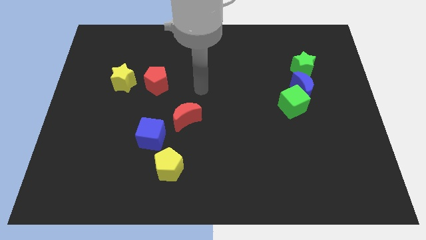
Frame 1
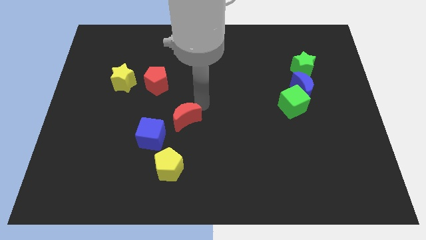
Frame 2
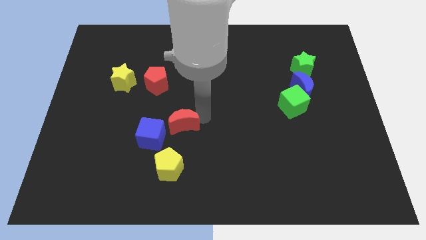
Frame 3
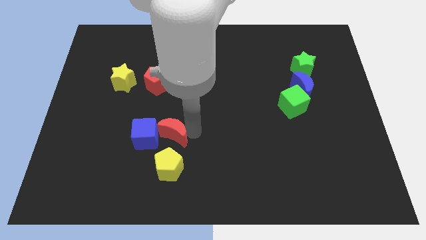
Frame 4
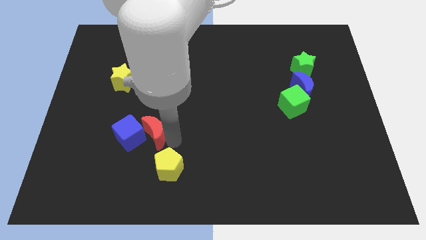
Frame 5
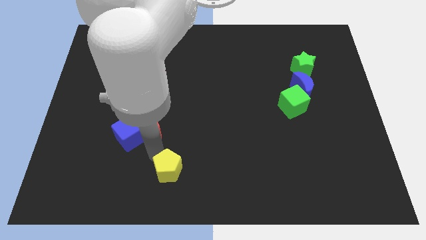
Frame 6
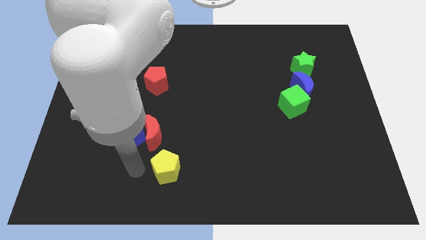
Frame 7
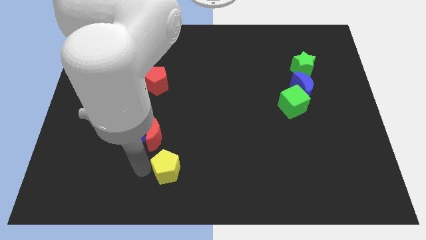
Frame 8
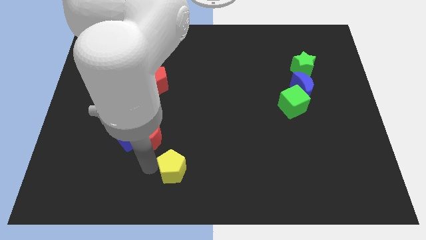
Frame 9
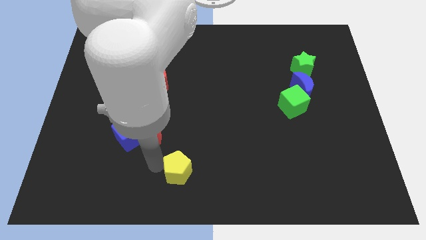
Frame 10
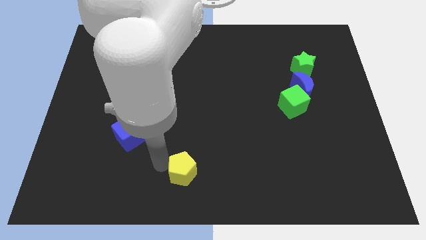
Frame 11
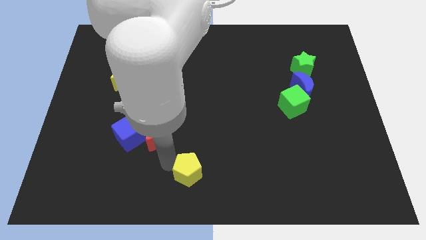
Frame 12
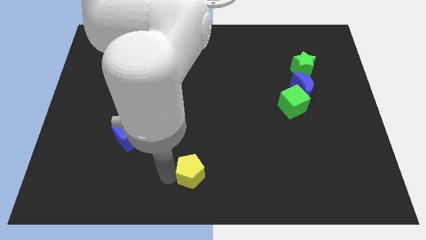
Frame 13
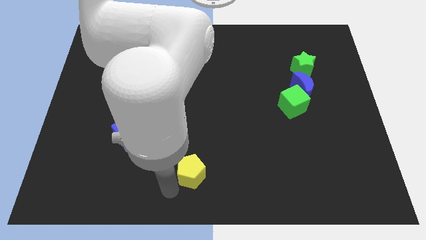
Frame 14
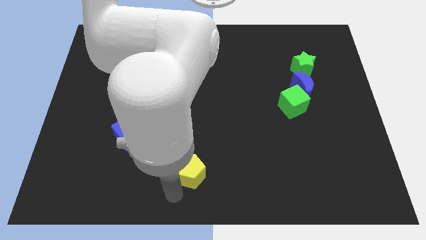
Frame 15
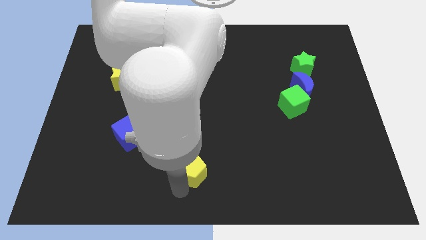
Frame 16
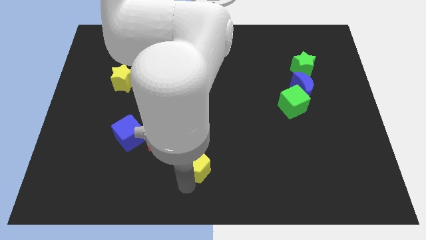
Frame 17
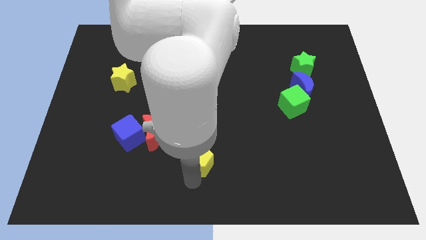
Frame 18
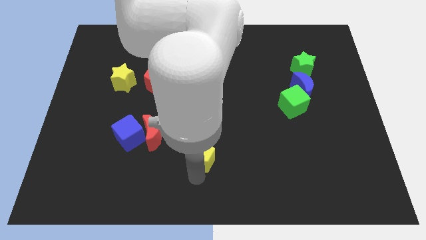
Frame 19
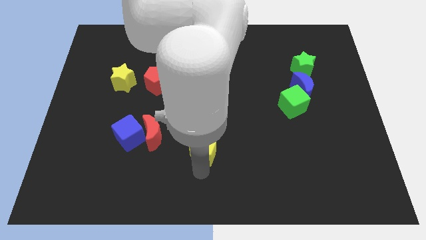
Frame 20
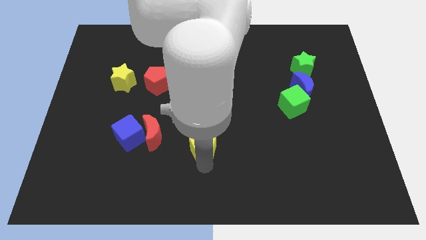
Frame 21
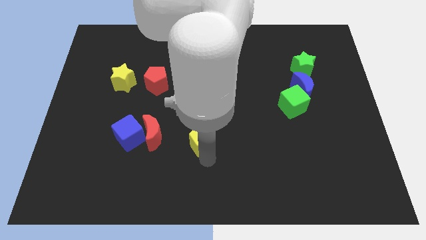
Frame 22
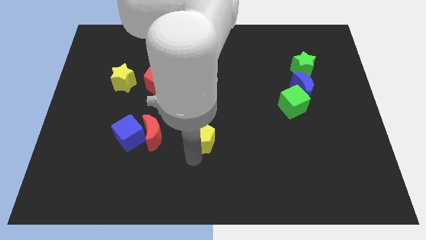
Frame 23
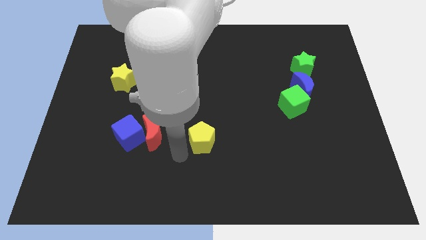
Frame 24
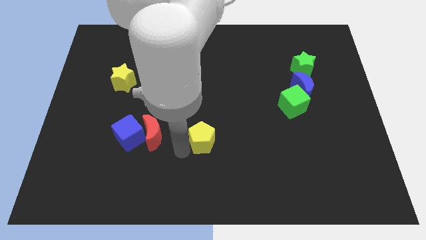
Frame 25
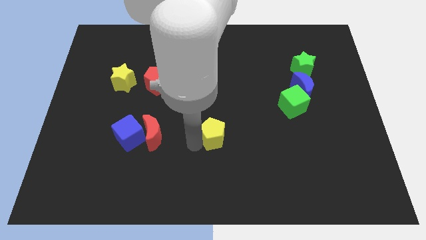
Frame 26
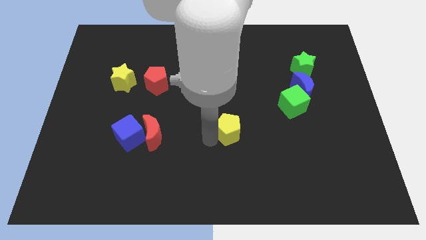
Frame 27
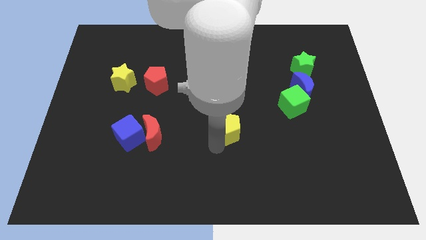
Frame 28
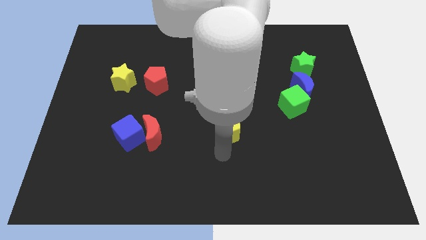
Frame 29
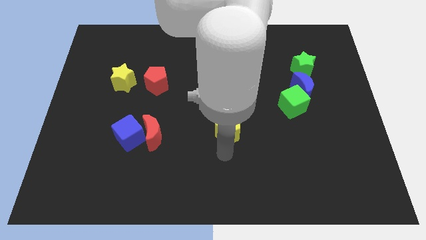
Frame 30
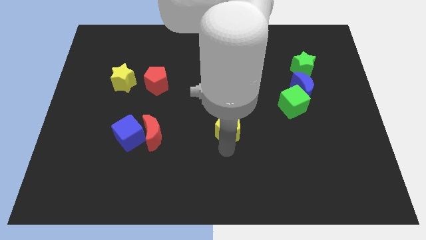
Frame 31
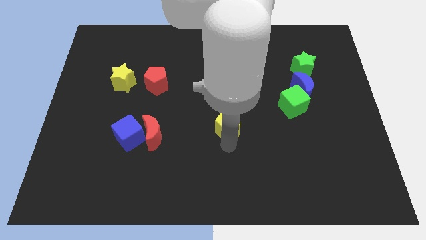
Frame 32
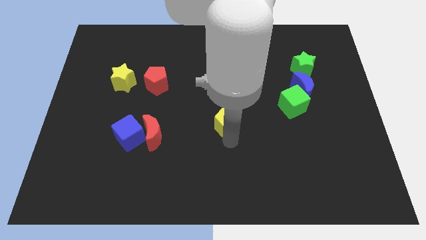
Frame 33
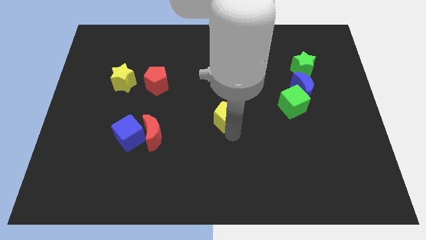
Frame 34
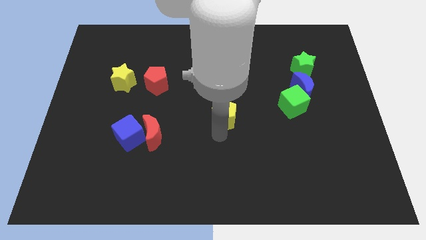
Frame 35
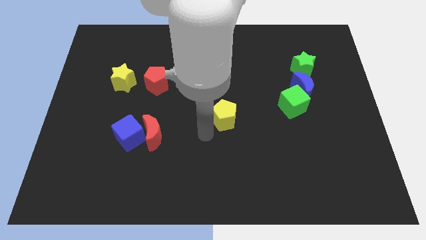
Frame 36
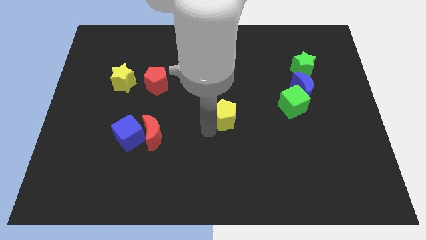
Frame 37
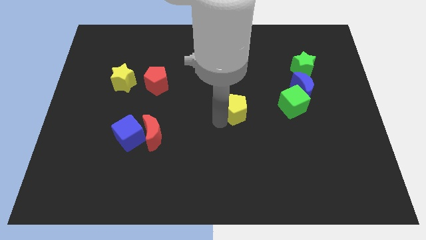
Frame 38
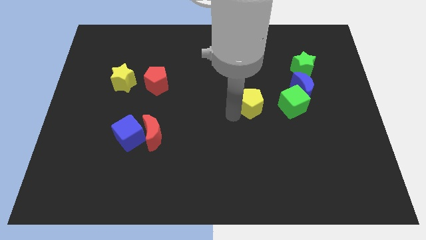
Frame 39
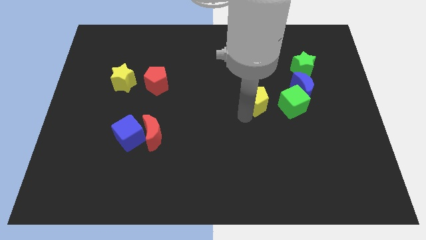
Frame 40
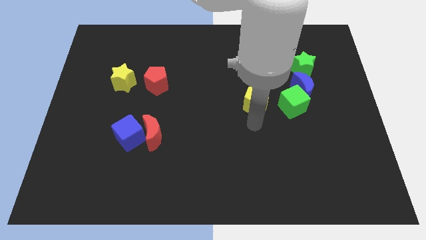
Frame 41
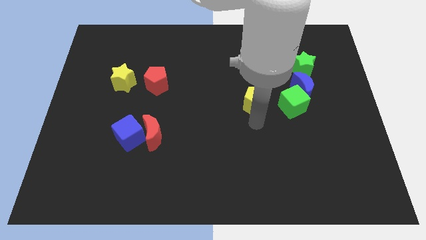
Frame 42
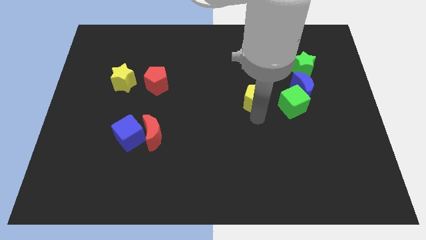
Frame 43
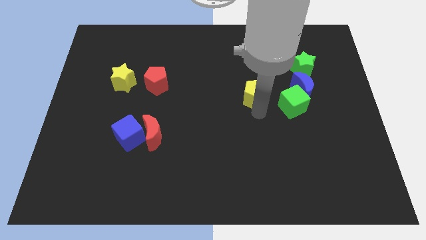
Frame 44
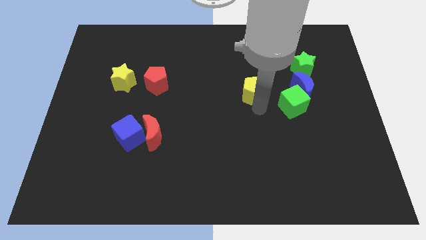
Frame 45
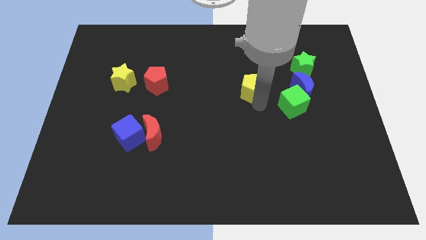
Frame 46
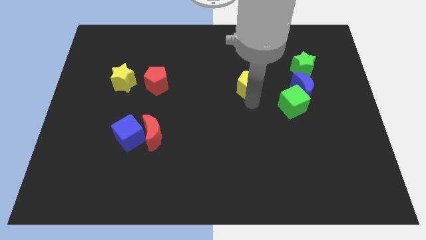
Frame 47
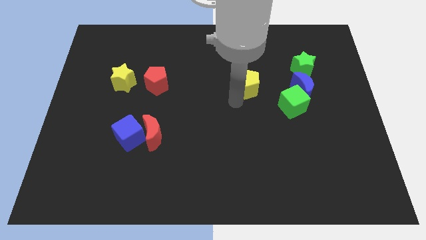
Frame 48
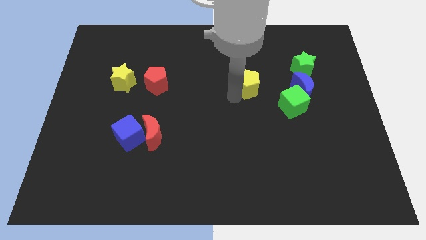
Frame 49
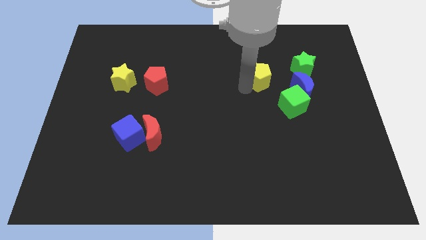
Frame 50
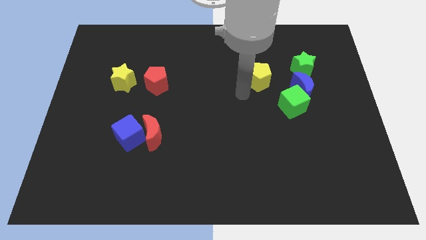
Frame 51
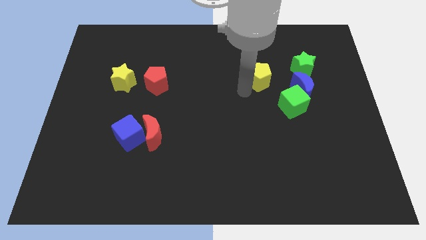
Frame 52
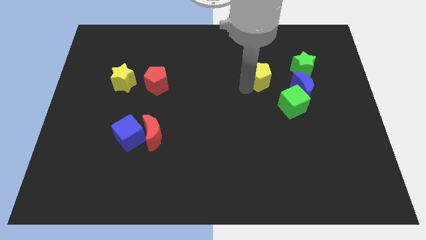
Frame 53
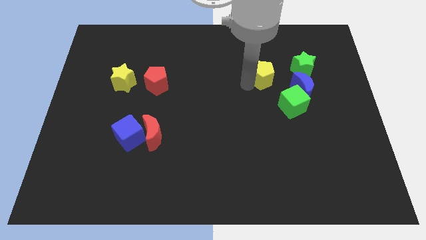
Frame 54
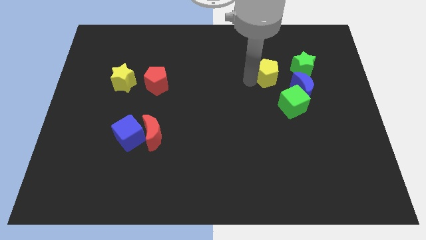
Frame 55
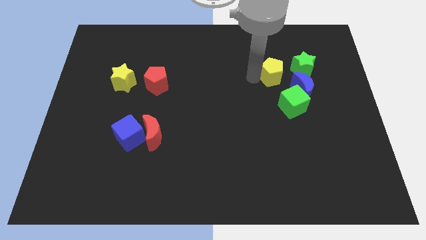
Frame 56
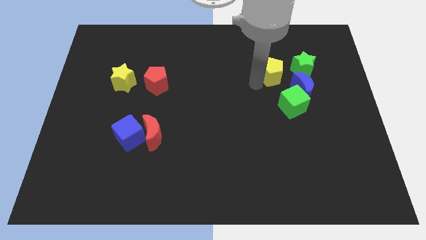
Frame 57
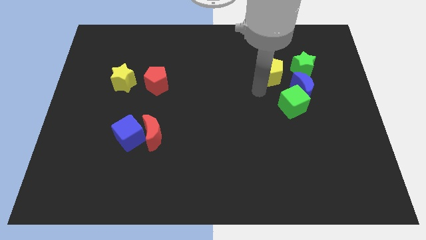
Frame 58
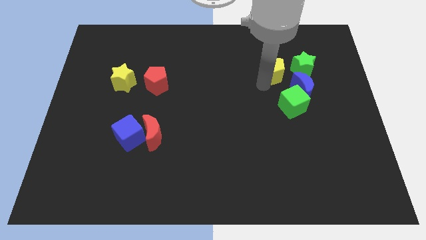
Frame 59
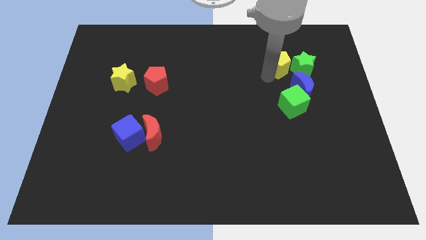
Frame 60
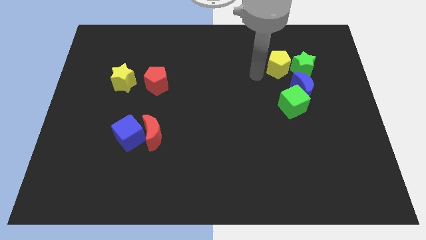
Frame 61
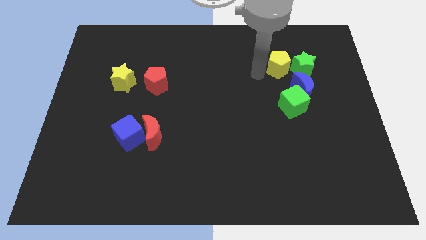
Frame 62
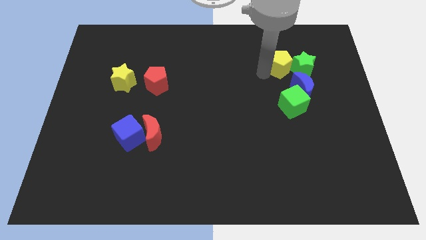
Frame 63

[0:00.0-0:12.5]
move the yellow pentagon to the top side of the blue moon
